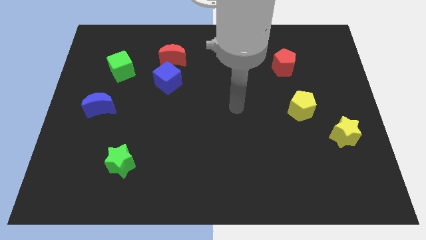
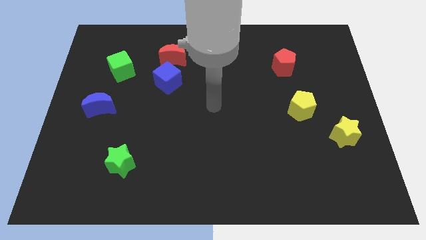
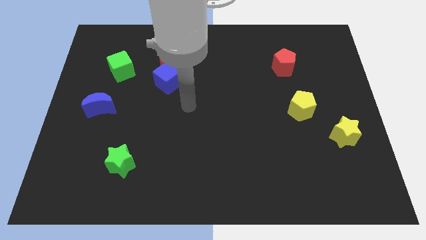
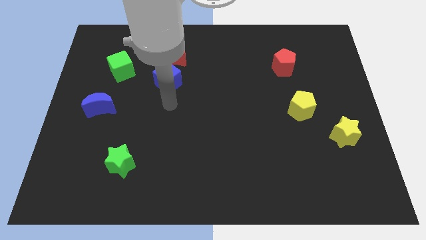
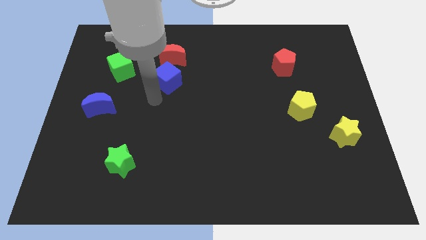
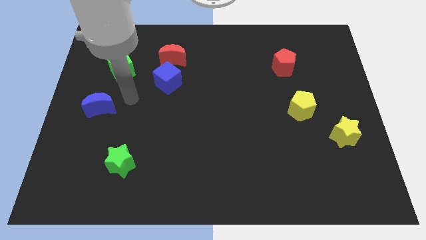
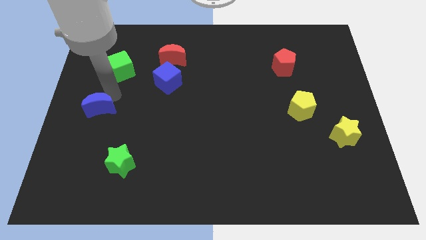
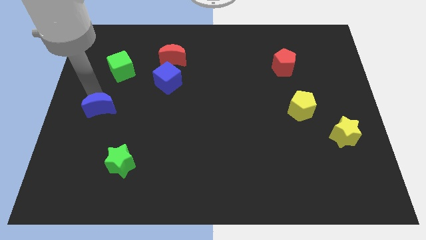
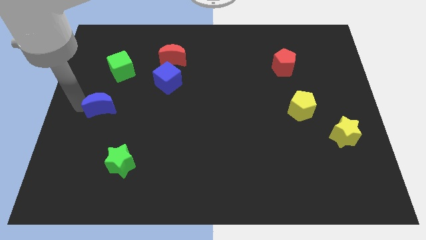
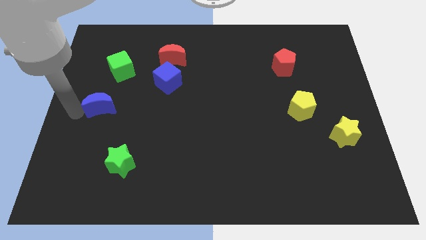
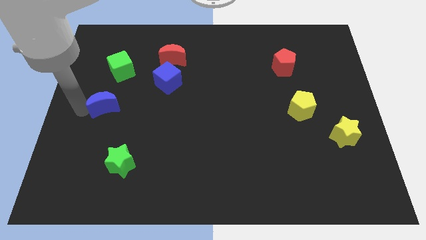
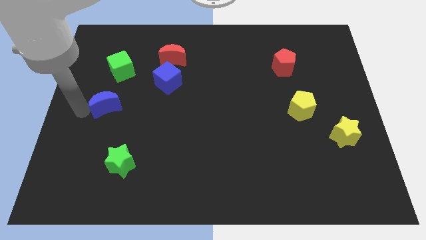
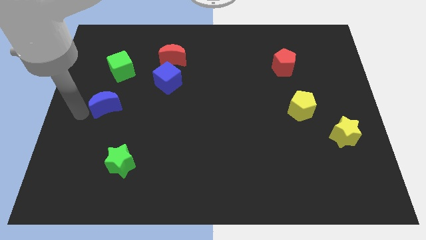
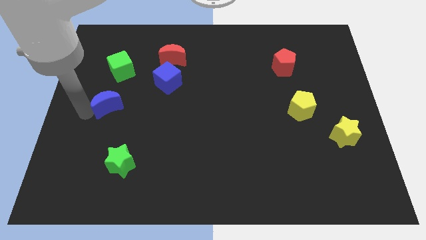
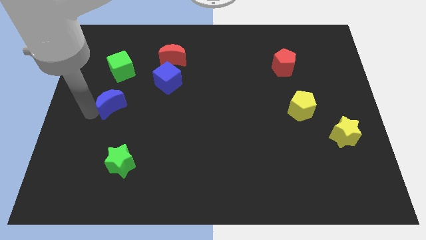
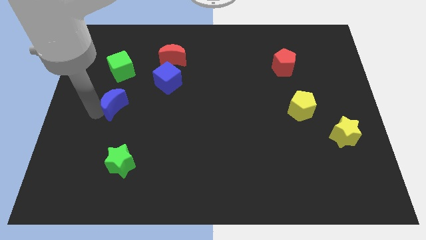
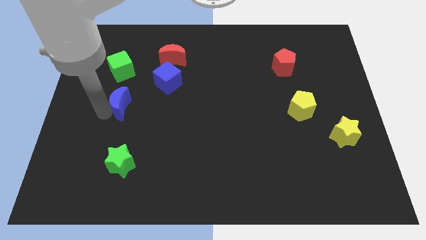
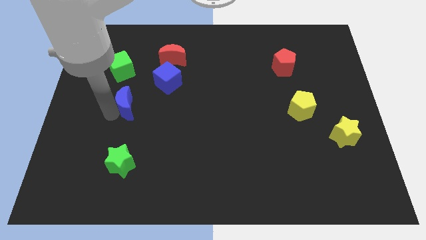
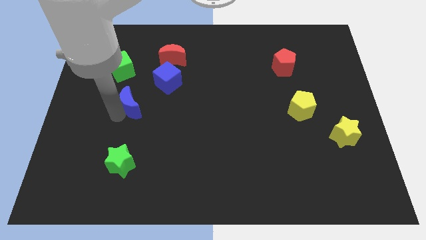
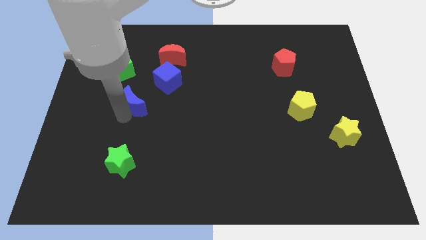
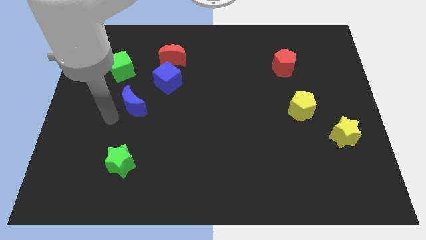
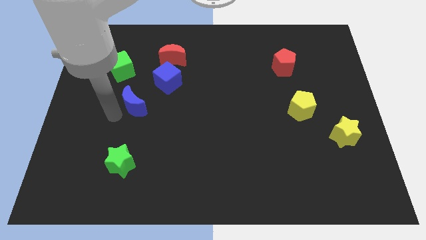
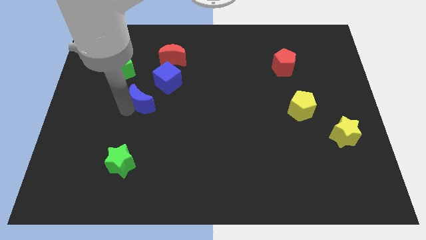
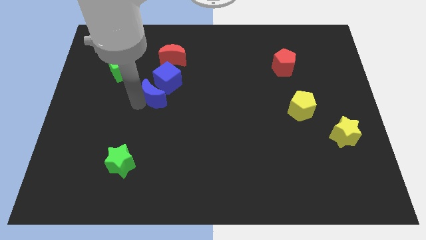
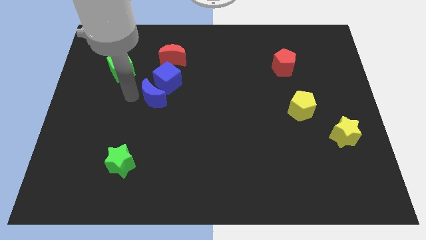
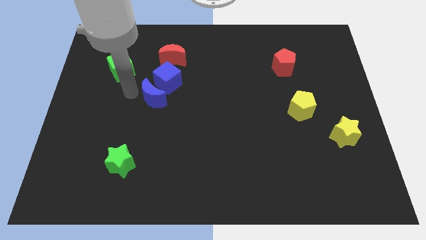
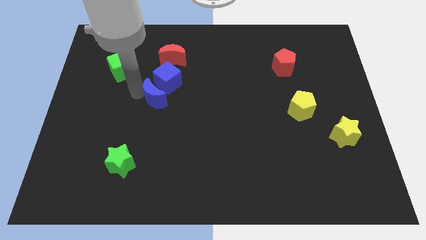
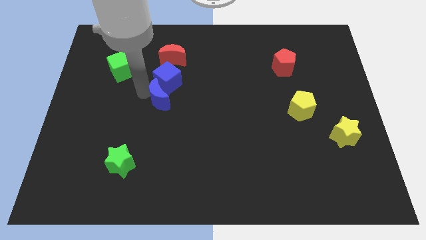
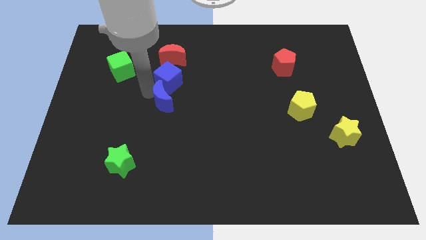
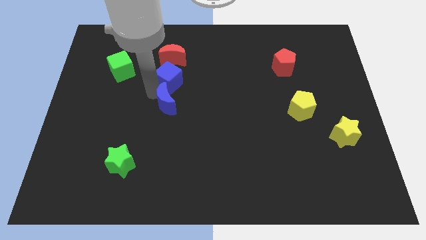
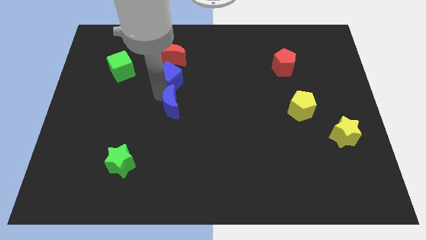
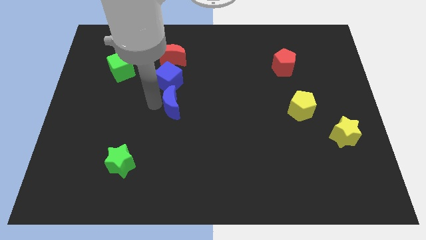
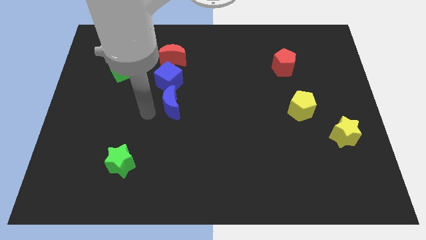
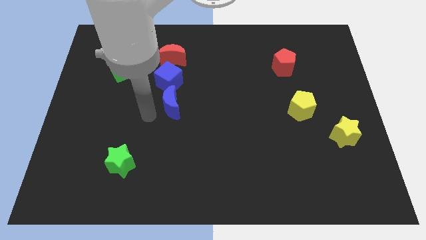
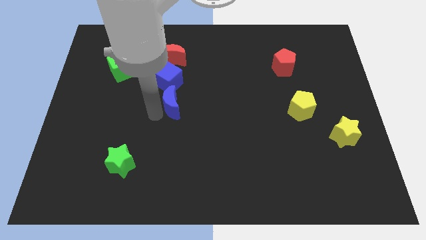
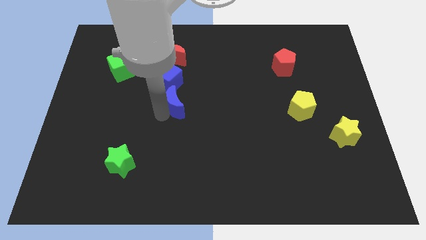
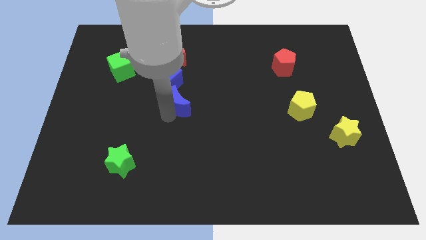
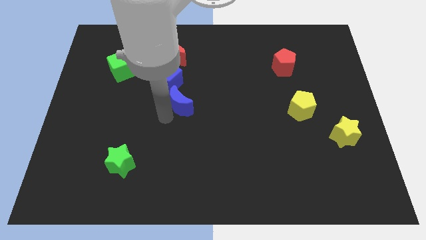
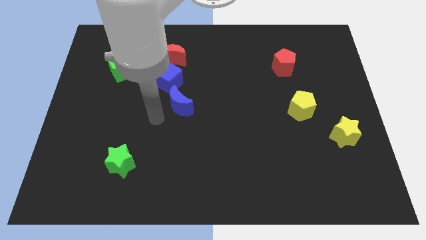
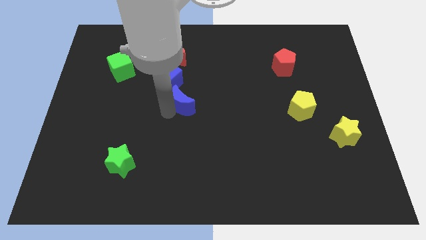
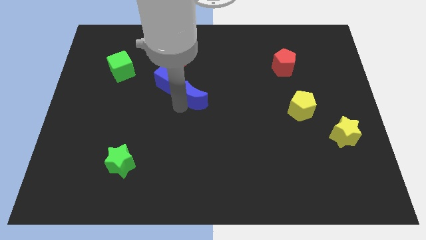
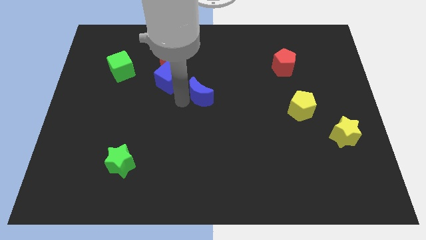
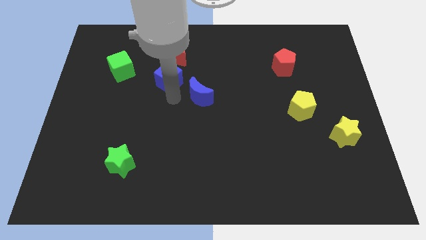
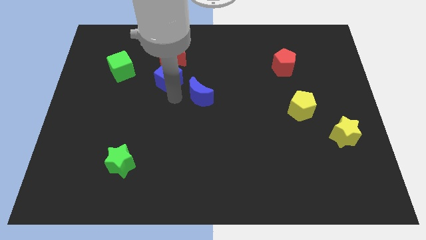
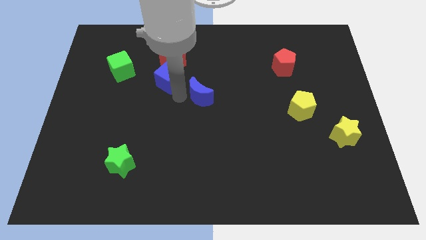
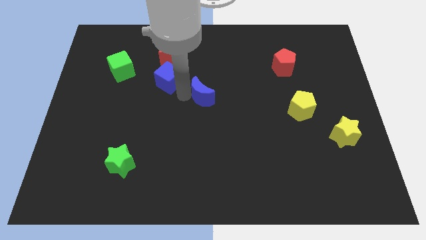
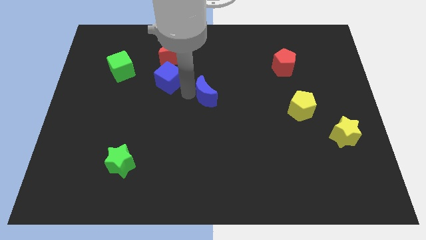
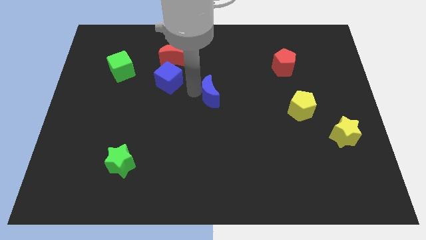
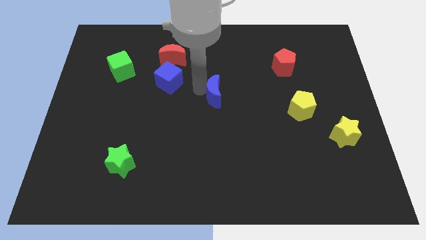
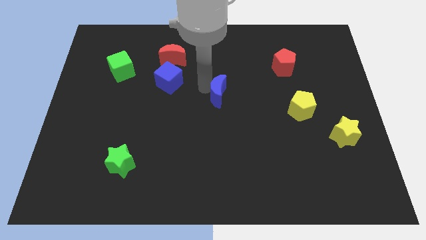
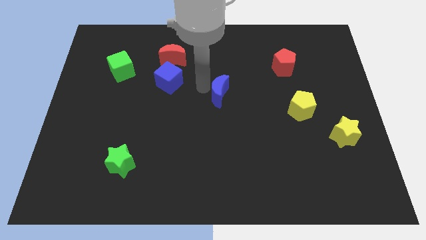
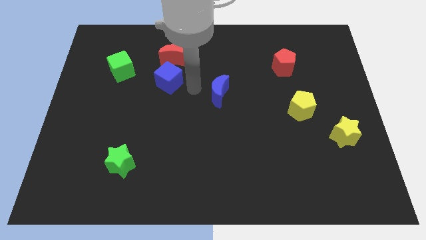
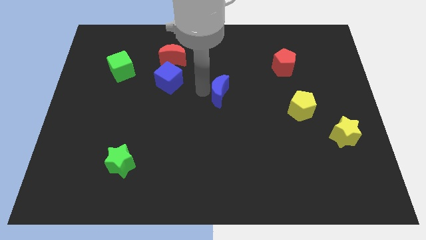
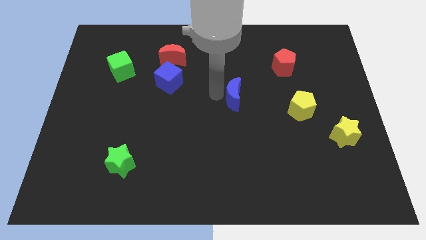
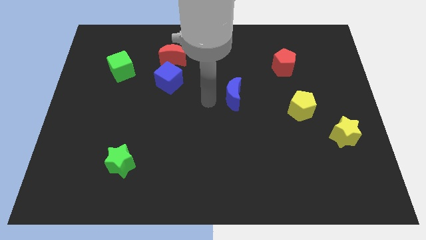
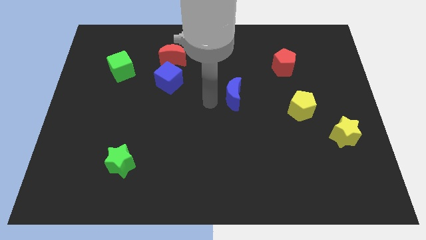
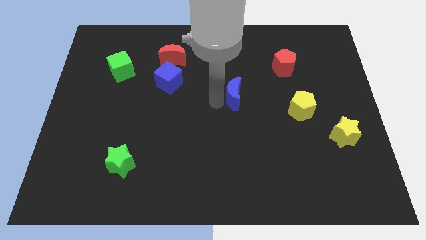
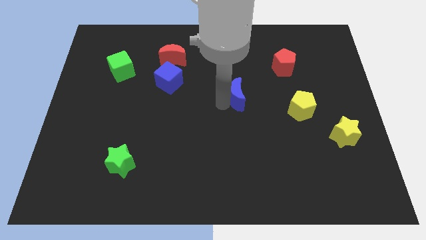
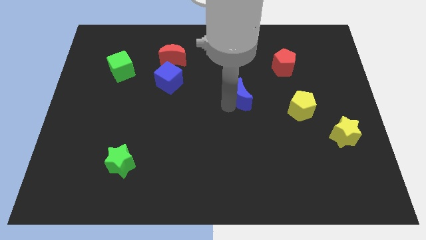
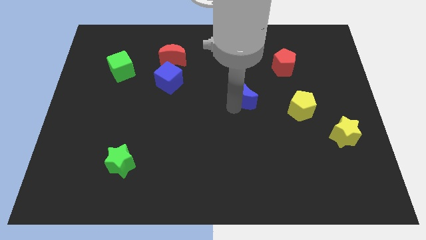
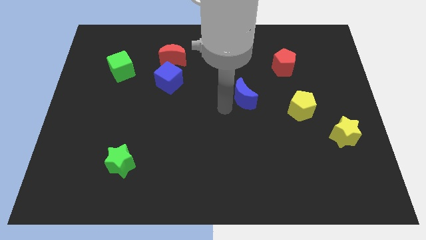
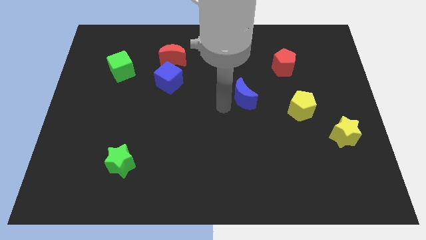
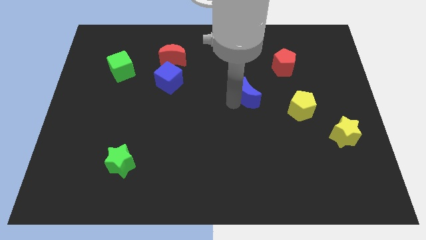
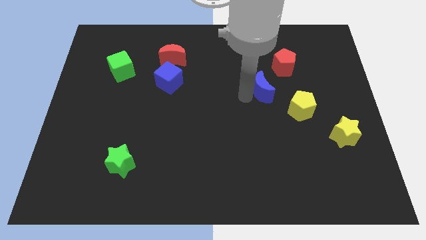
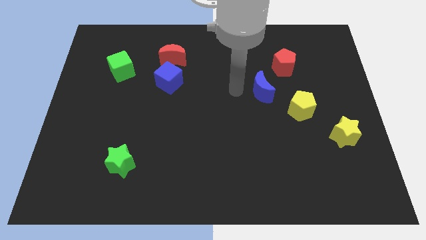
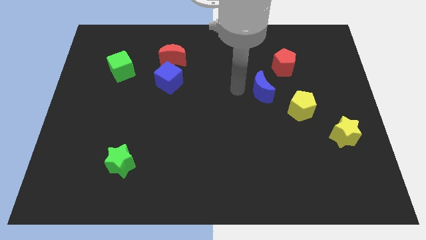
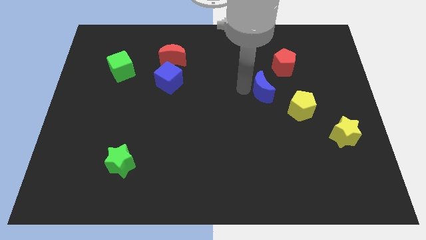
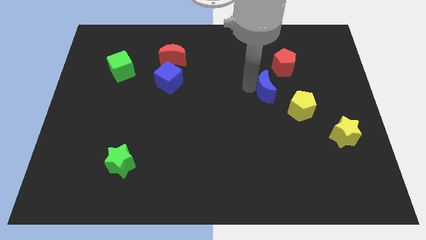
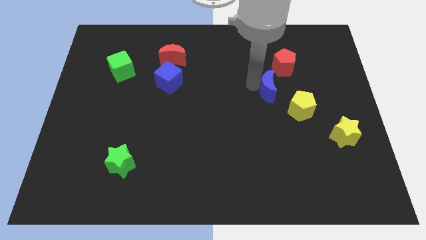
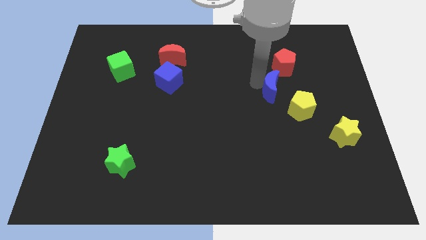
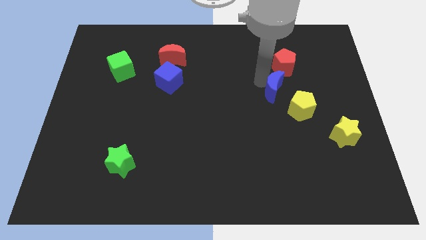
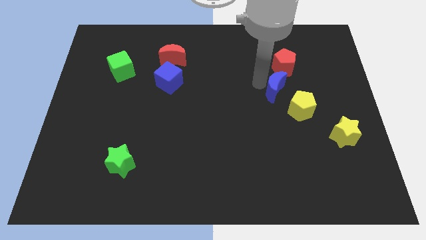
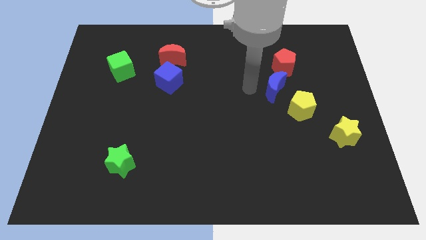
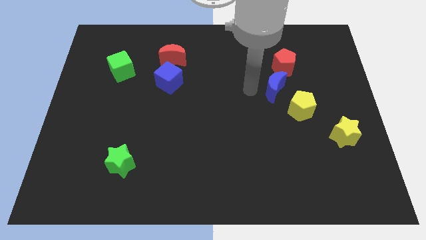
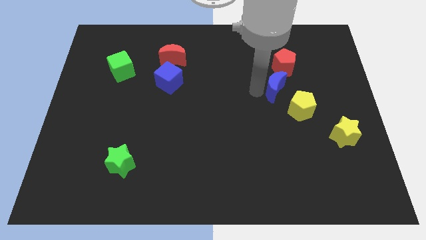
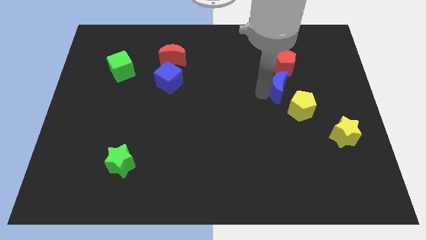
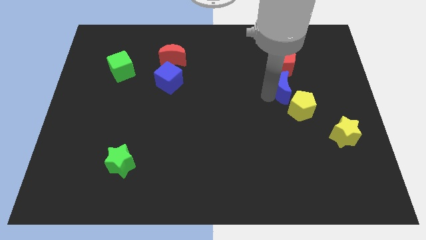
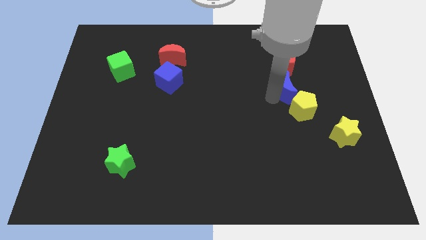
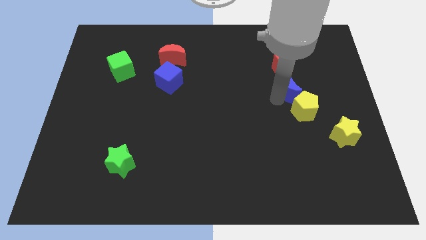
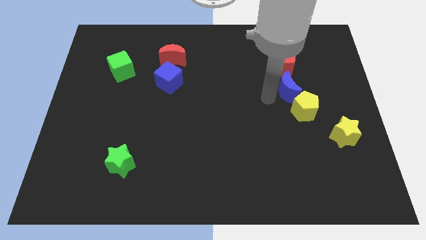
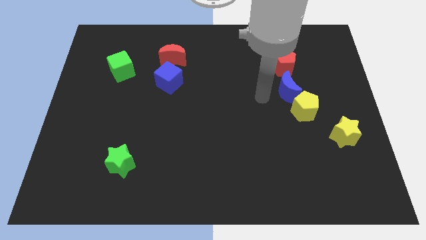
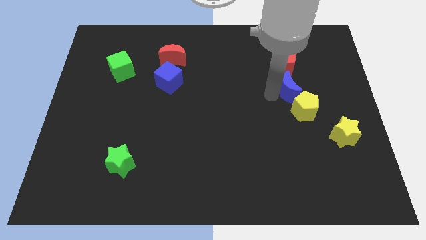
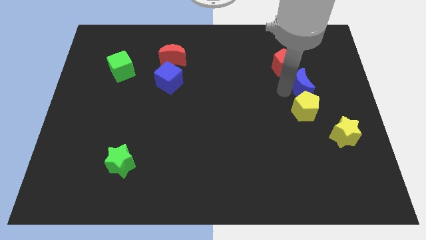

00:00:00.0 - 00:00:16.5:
move the blue moon to the top right of the yellow pentagon

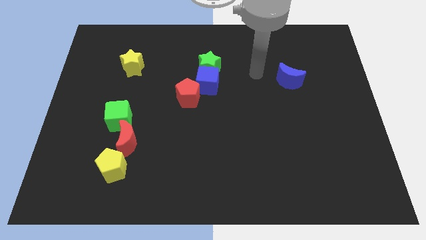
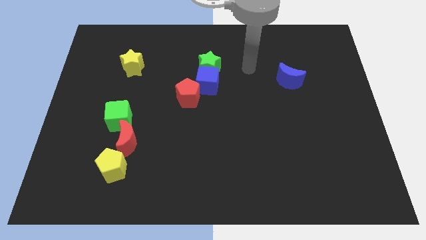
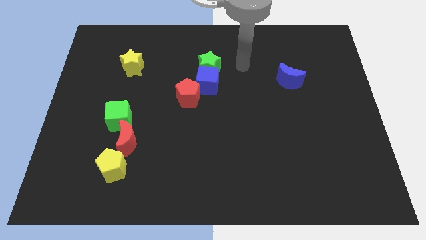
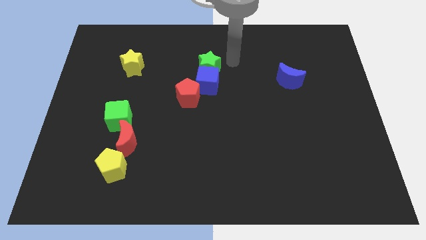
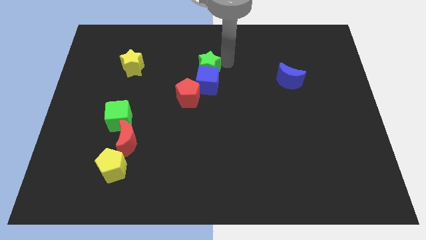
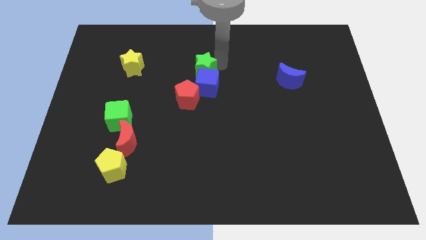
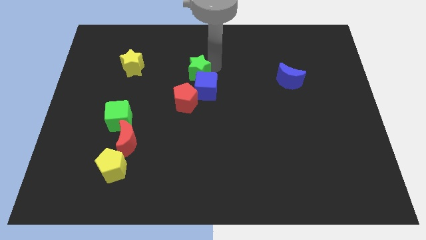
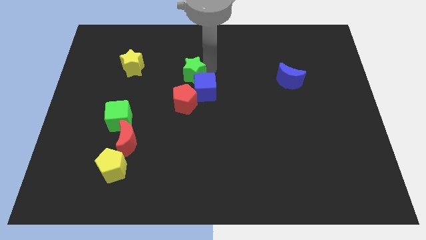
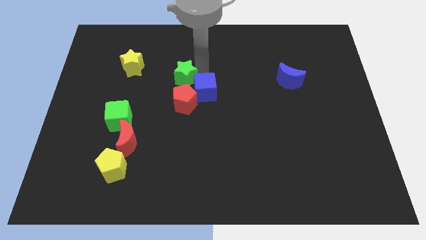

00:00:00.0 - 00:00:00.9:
put the green star to the left side of the blue cube
